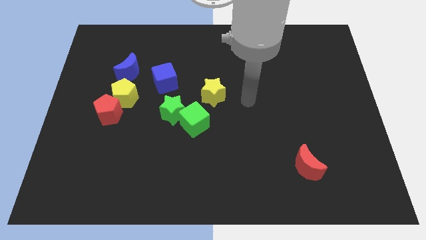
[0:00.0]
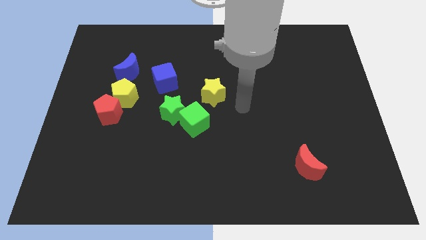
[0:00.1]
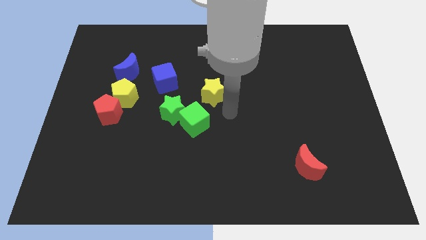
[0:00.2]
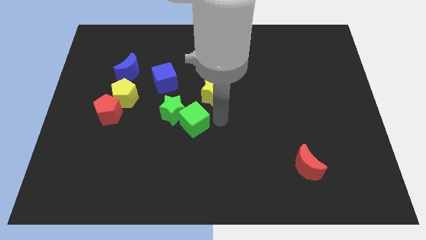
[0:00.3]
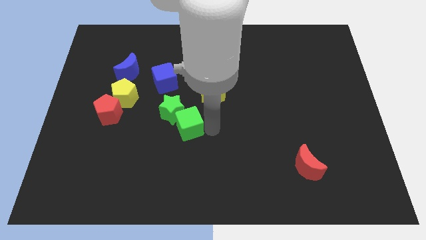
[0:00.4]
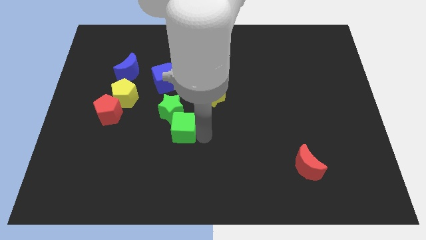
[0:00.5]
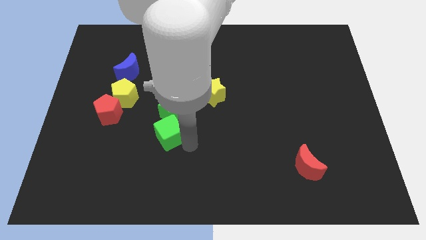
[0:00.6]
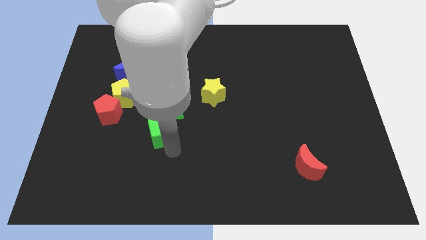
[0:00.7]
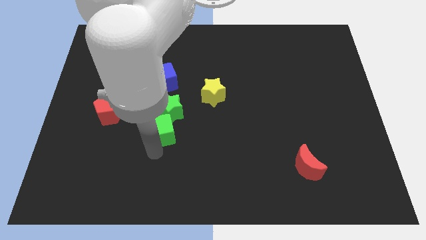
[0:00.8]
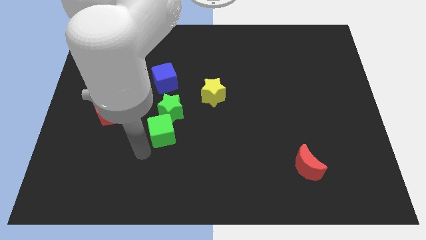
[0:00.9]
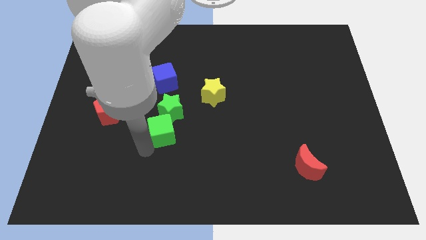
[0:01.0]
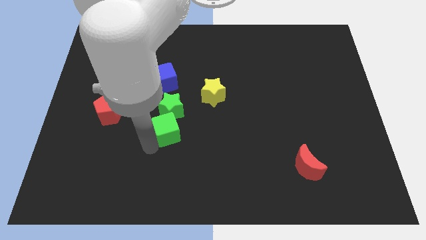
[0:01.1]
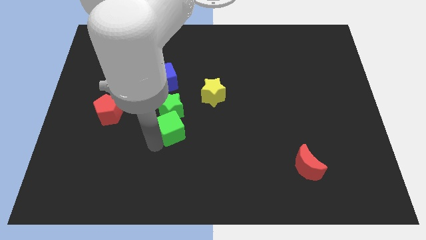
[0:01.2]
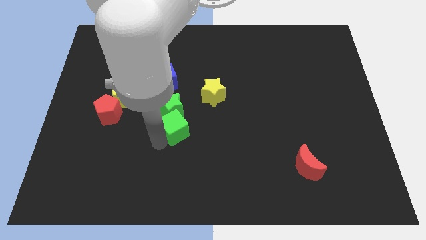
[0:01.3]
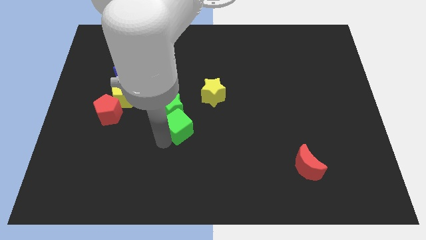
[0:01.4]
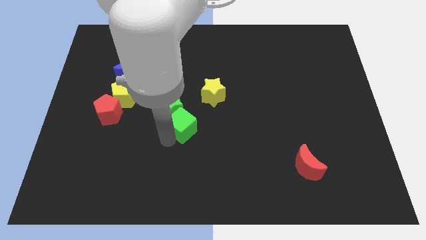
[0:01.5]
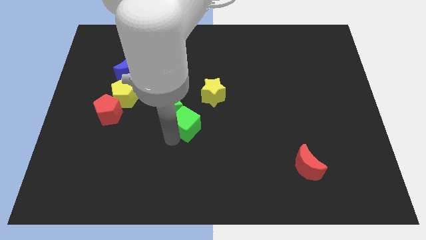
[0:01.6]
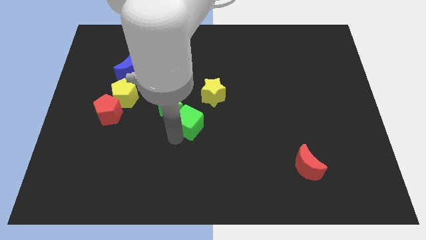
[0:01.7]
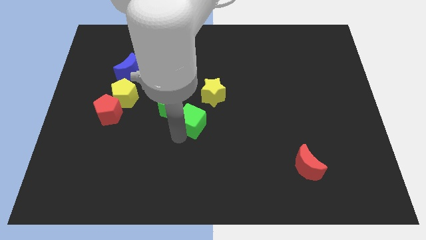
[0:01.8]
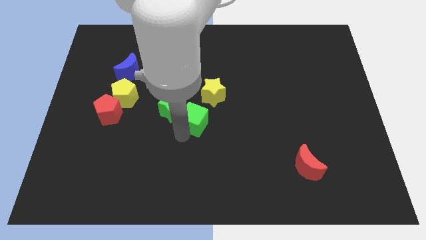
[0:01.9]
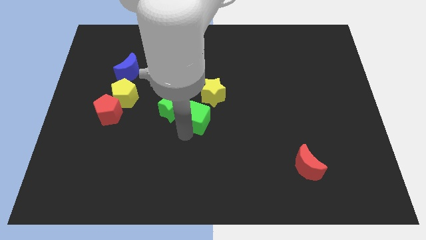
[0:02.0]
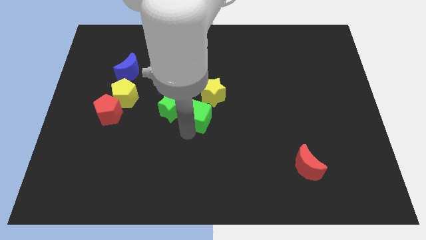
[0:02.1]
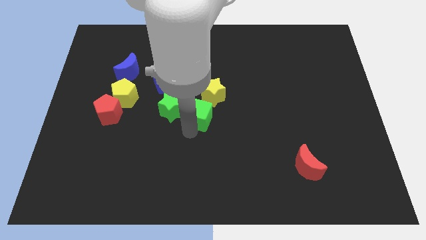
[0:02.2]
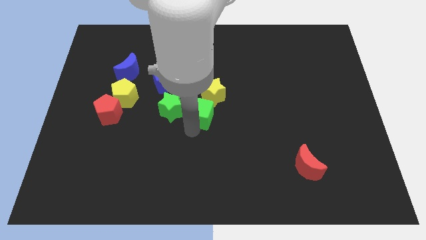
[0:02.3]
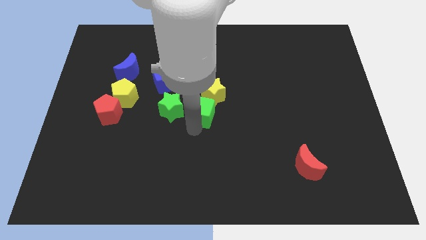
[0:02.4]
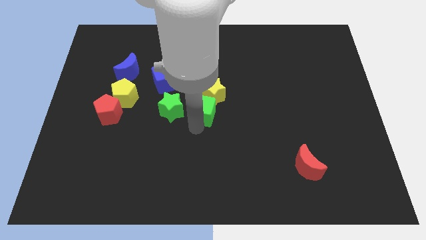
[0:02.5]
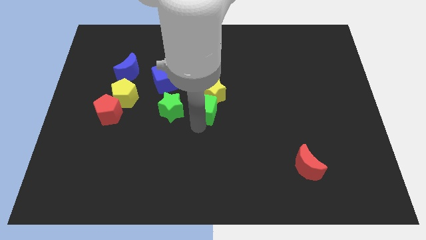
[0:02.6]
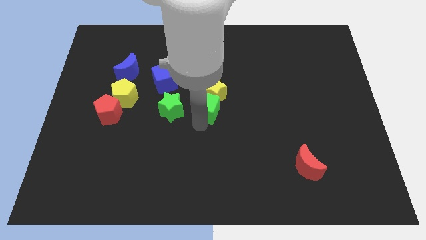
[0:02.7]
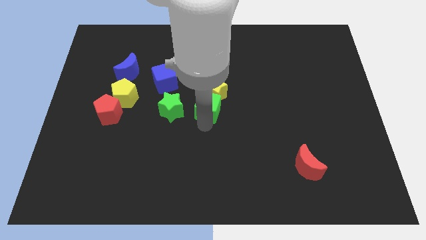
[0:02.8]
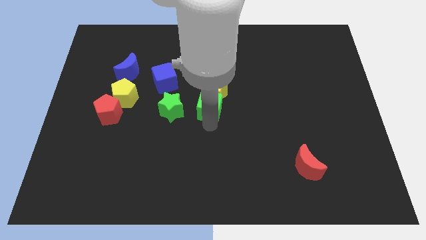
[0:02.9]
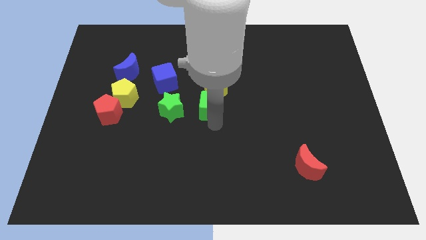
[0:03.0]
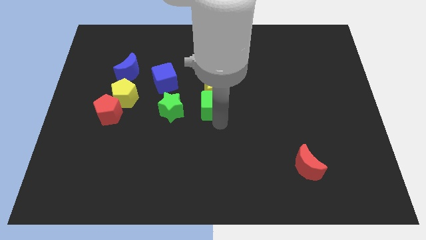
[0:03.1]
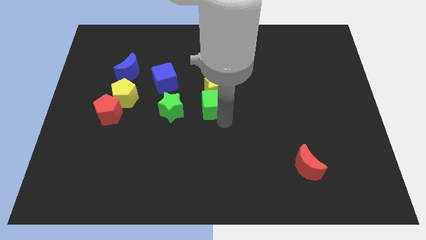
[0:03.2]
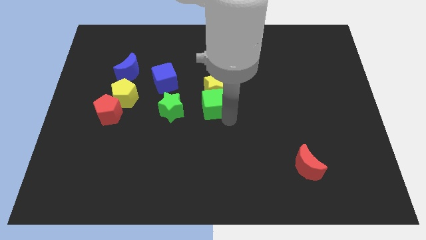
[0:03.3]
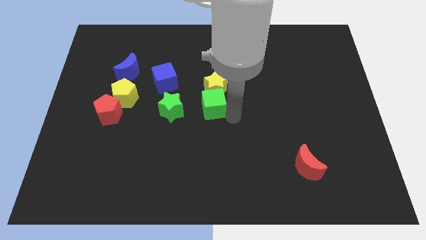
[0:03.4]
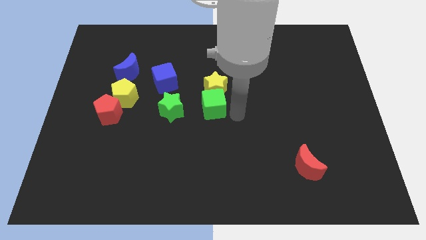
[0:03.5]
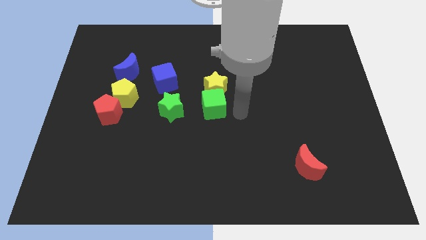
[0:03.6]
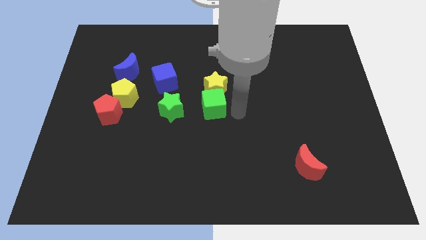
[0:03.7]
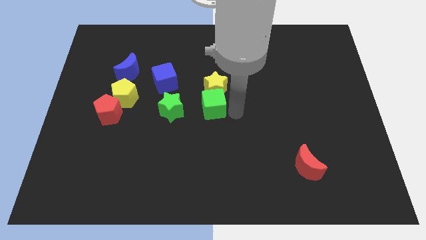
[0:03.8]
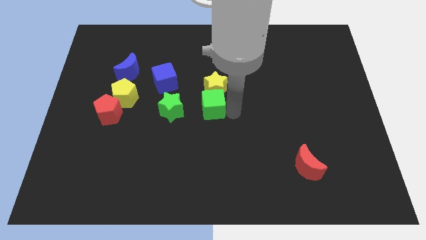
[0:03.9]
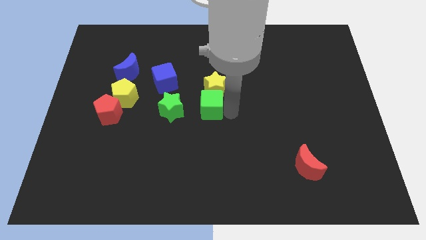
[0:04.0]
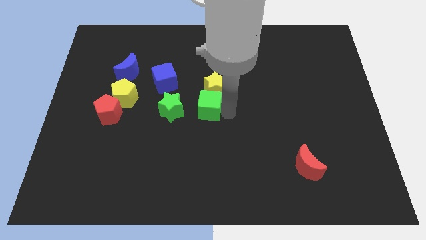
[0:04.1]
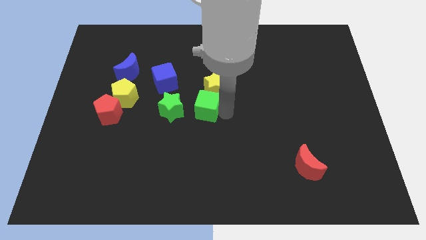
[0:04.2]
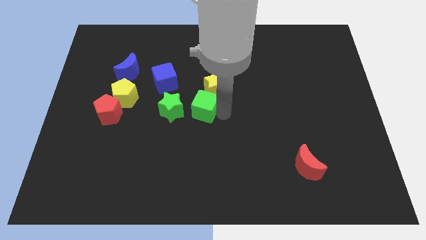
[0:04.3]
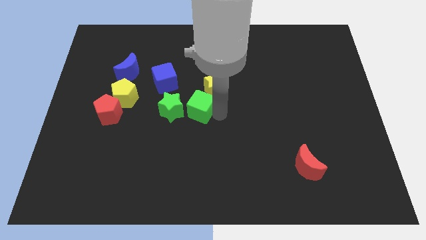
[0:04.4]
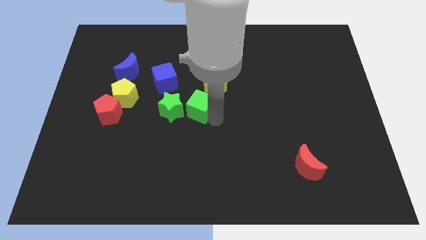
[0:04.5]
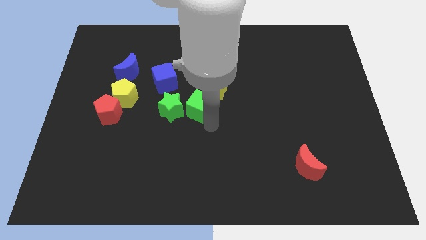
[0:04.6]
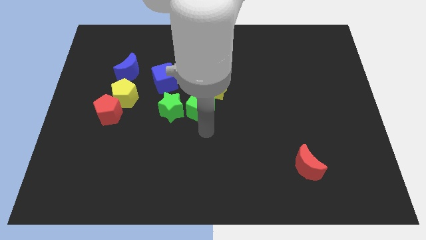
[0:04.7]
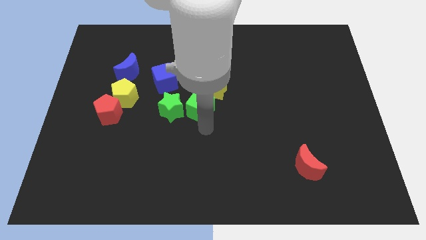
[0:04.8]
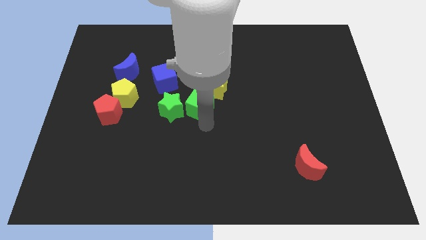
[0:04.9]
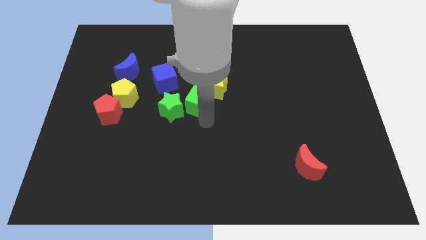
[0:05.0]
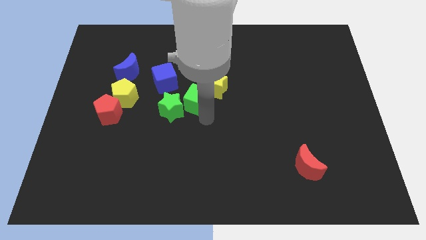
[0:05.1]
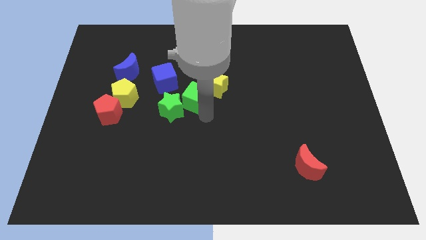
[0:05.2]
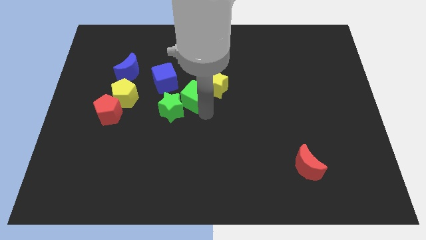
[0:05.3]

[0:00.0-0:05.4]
move the green cube slightly up

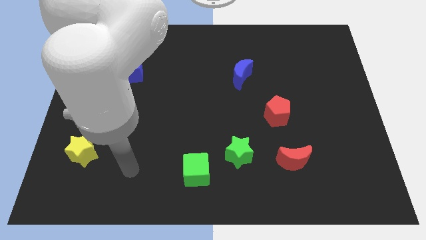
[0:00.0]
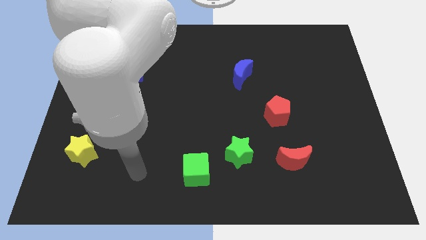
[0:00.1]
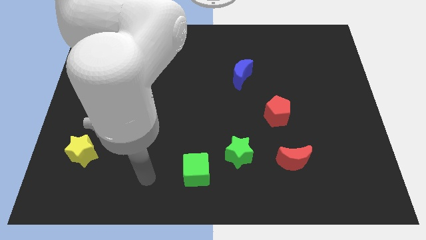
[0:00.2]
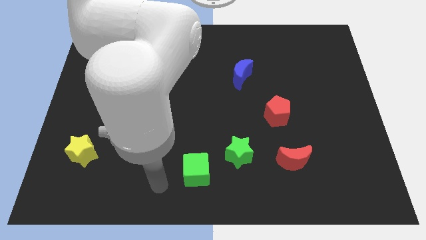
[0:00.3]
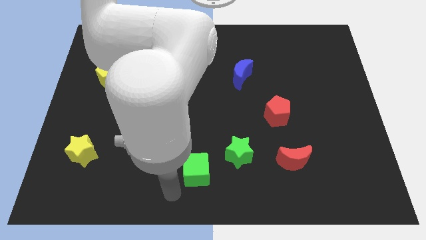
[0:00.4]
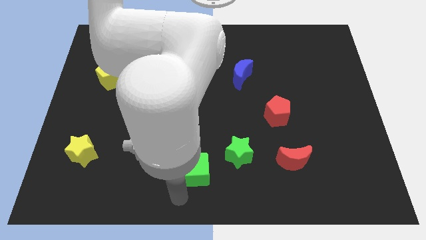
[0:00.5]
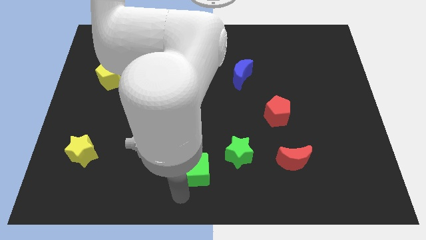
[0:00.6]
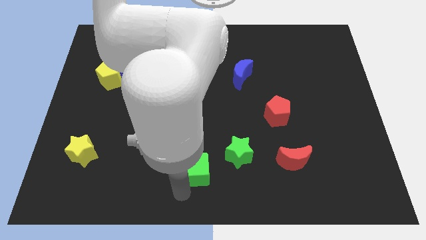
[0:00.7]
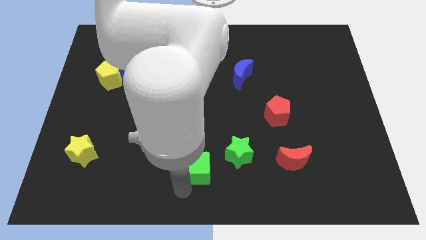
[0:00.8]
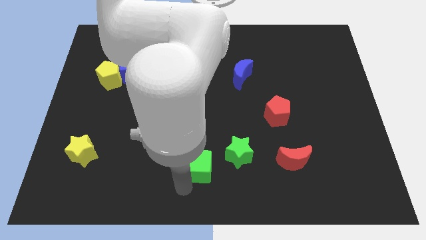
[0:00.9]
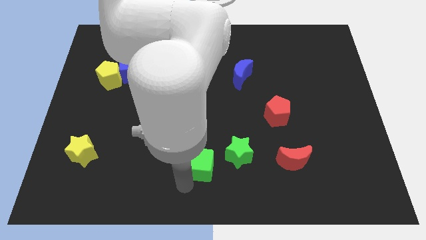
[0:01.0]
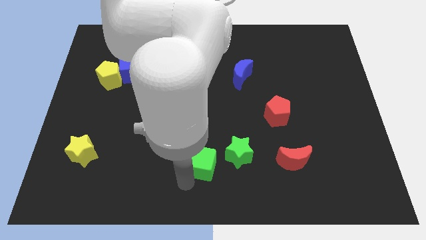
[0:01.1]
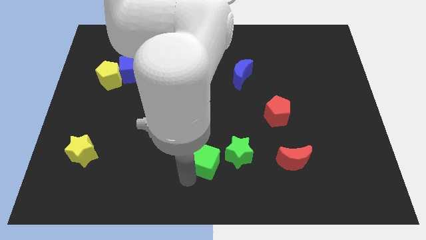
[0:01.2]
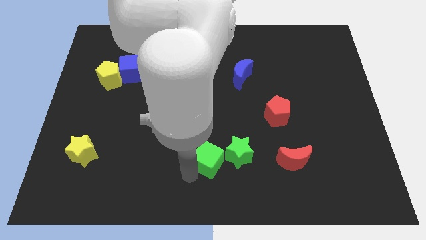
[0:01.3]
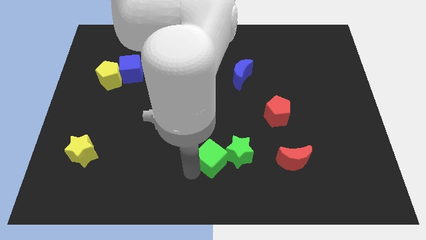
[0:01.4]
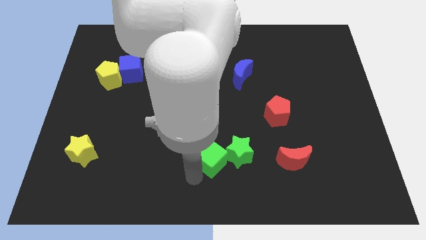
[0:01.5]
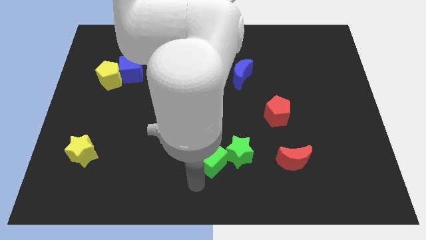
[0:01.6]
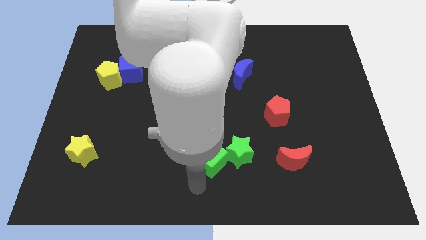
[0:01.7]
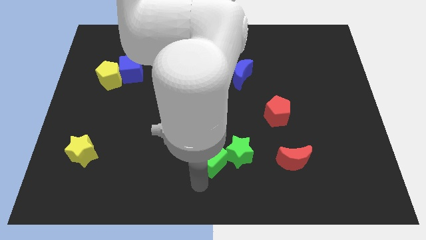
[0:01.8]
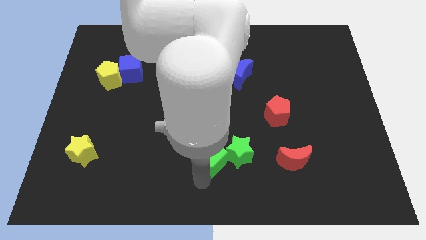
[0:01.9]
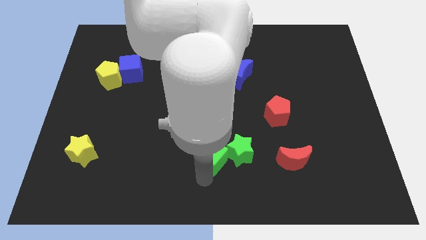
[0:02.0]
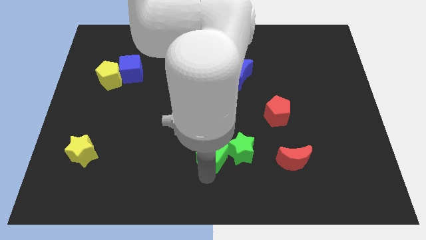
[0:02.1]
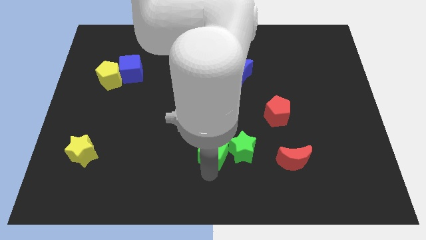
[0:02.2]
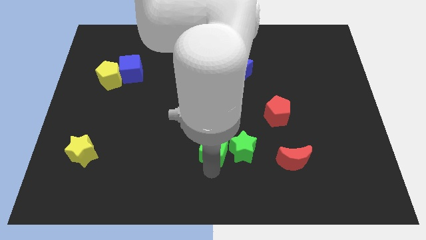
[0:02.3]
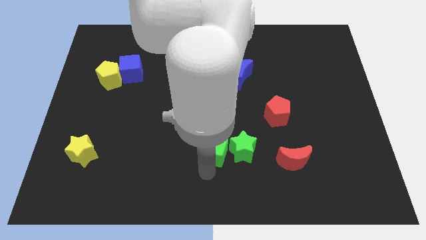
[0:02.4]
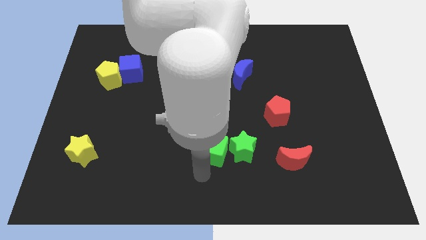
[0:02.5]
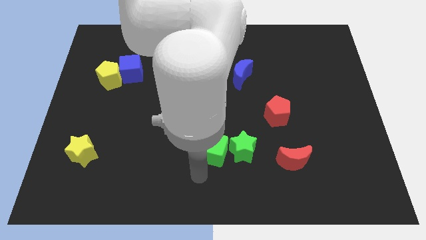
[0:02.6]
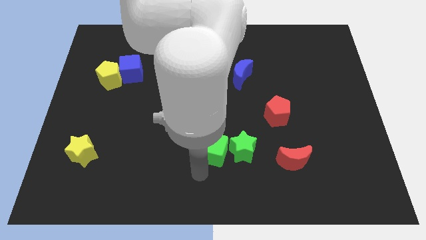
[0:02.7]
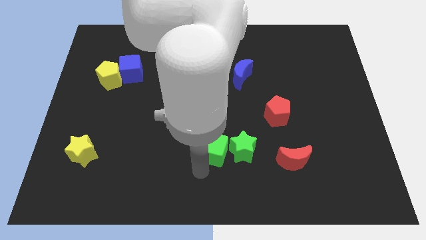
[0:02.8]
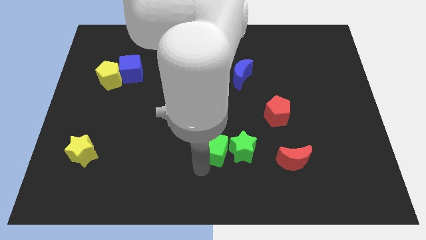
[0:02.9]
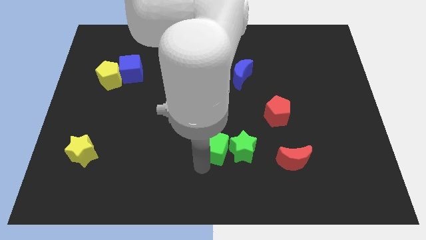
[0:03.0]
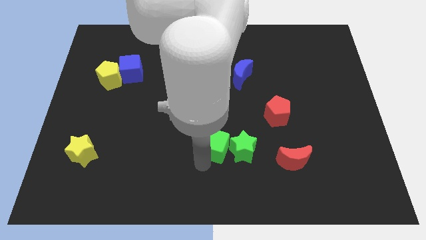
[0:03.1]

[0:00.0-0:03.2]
move the green cube a bit up and to the right
